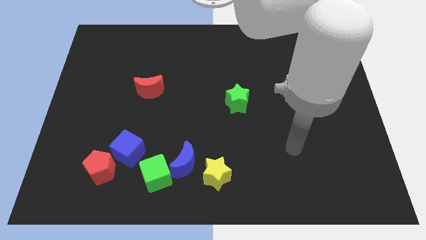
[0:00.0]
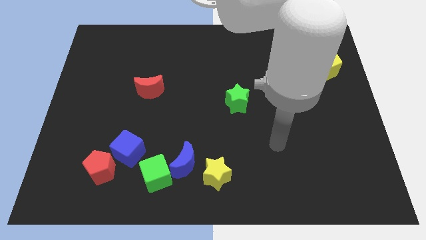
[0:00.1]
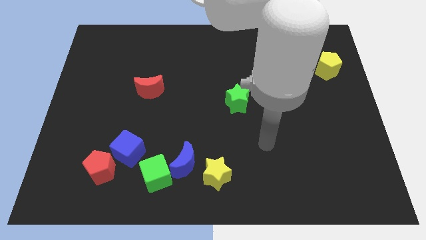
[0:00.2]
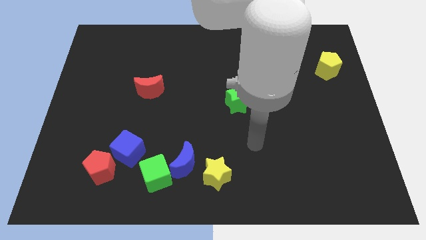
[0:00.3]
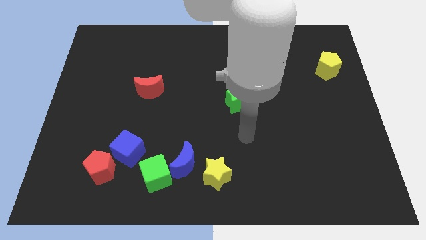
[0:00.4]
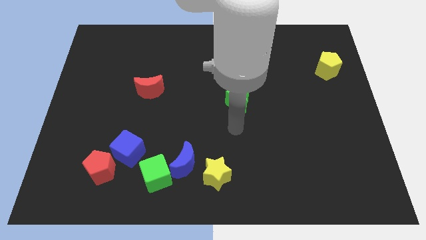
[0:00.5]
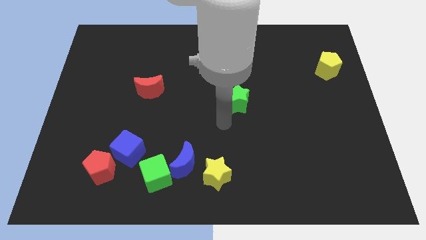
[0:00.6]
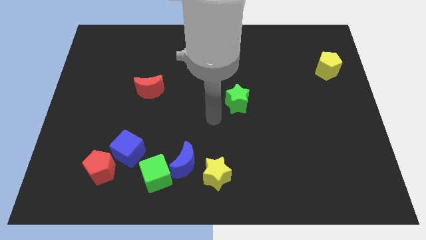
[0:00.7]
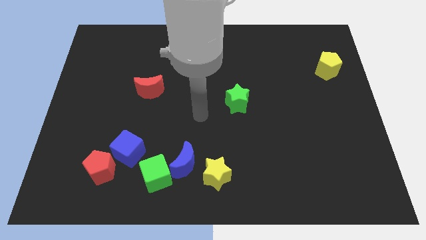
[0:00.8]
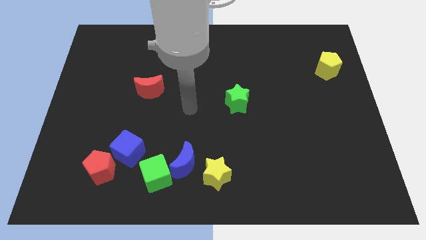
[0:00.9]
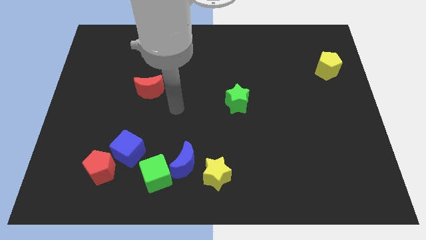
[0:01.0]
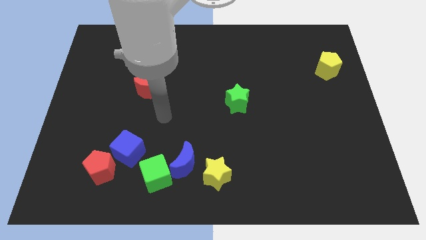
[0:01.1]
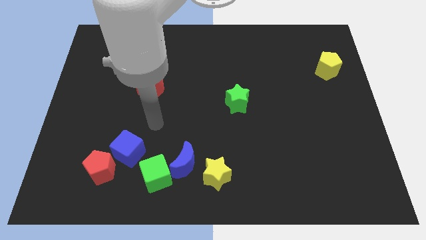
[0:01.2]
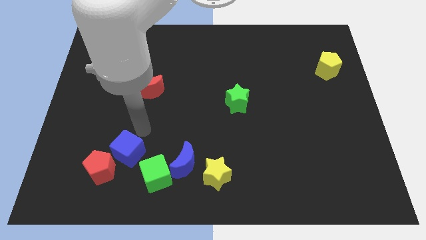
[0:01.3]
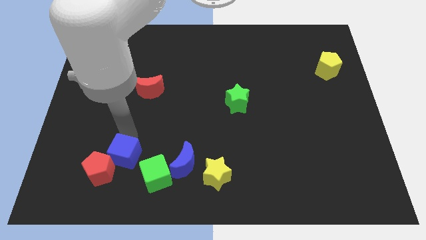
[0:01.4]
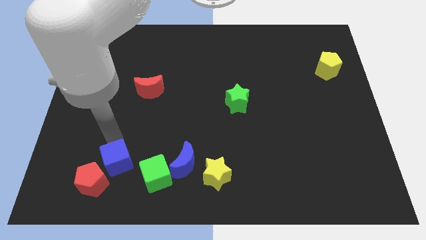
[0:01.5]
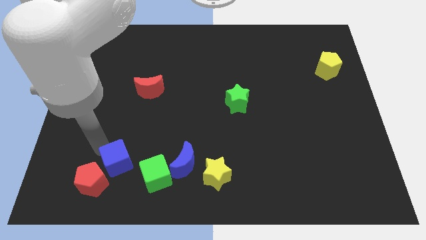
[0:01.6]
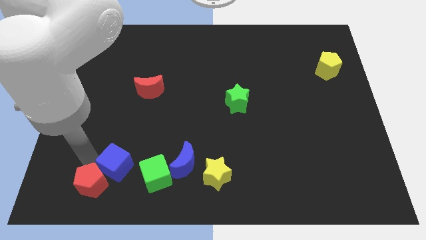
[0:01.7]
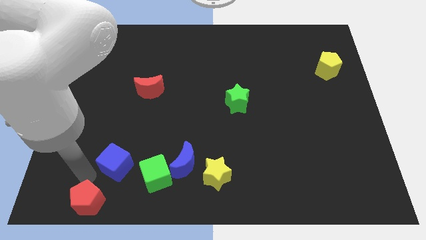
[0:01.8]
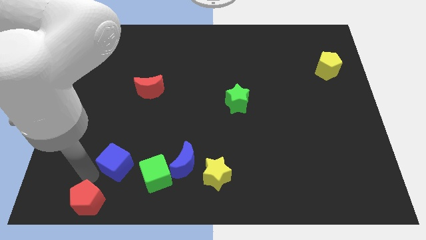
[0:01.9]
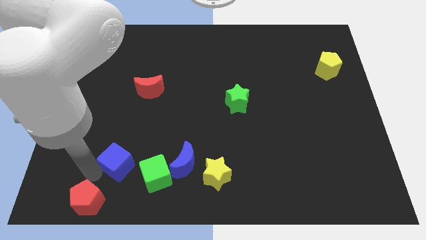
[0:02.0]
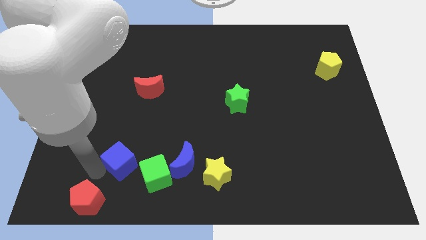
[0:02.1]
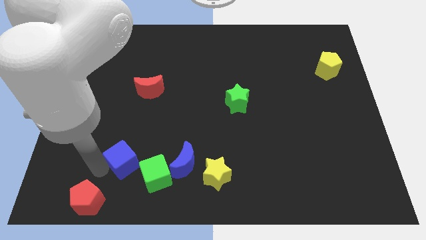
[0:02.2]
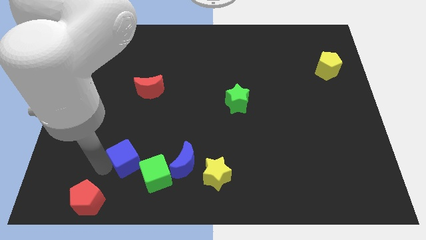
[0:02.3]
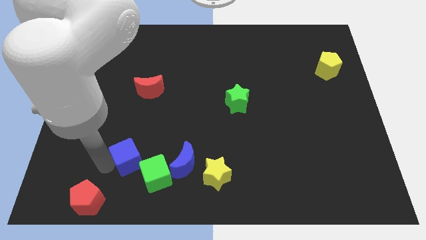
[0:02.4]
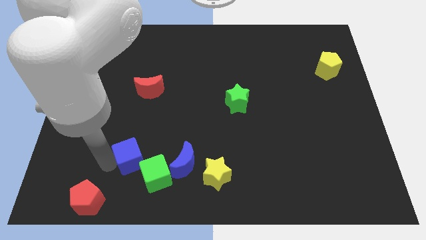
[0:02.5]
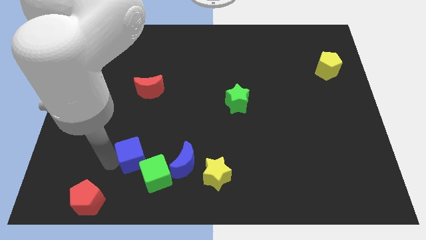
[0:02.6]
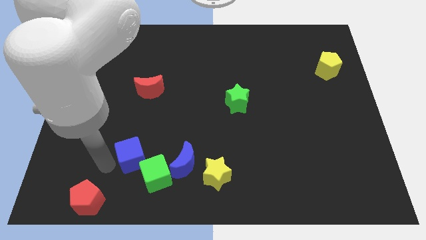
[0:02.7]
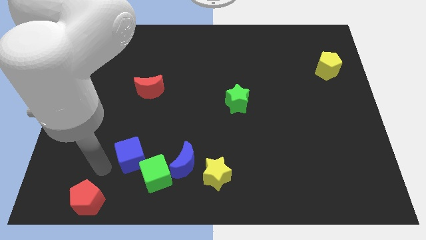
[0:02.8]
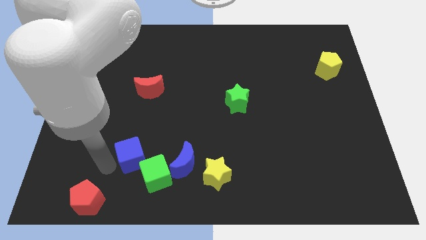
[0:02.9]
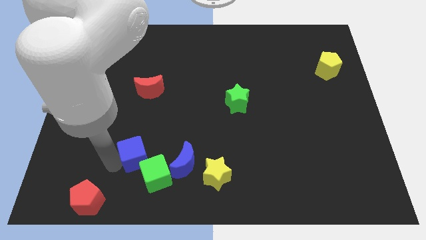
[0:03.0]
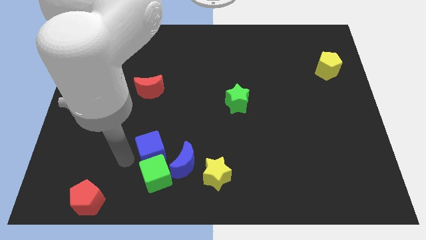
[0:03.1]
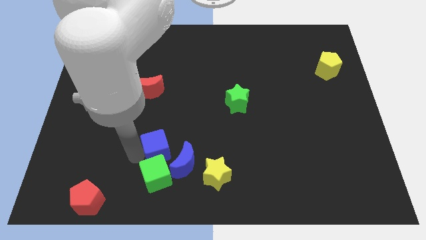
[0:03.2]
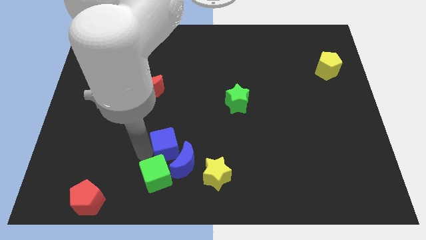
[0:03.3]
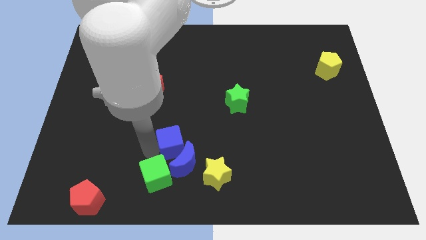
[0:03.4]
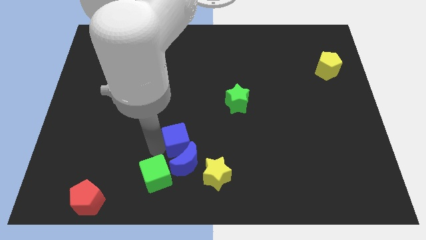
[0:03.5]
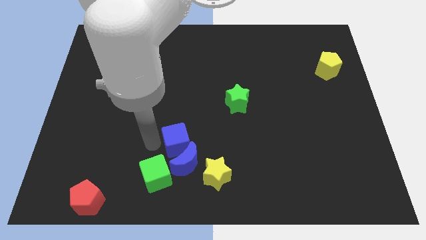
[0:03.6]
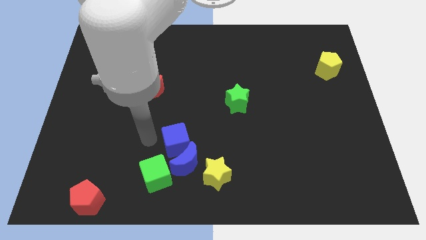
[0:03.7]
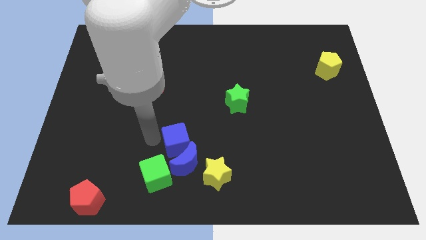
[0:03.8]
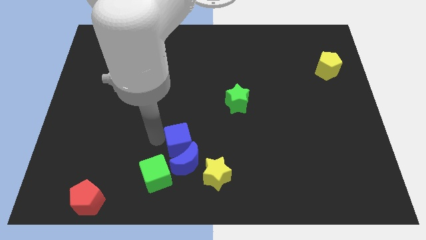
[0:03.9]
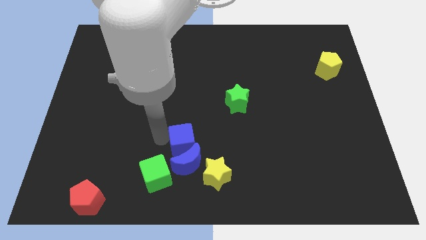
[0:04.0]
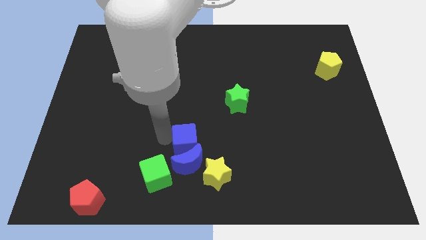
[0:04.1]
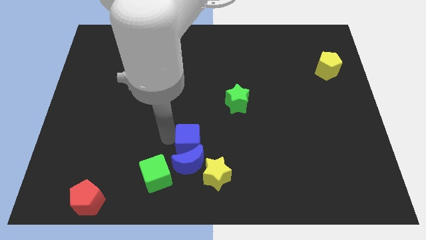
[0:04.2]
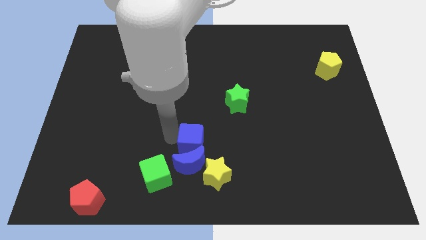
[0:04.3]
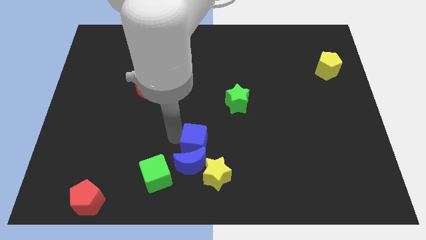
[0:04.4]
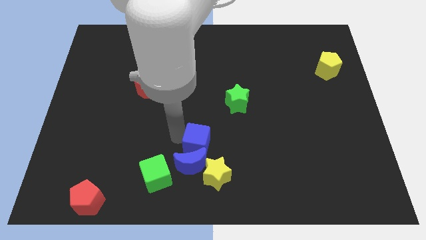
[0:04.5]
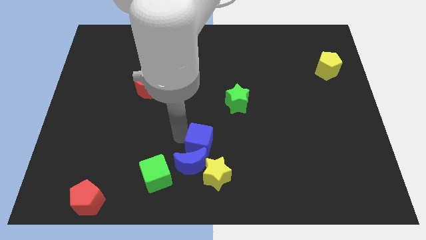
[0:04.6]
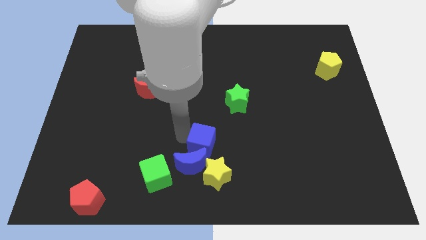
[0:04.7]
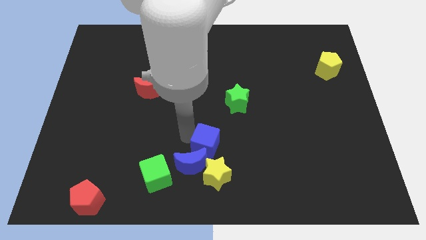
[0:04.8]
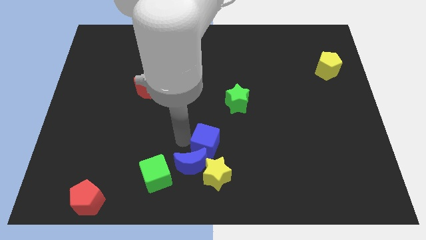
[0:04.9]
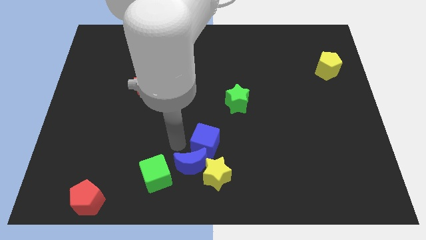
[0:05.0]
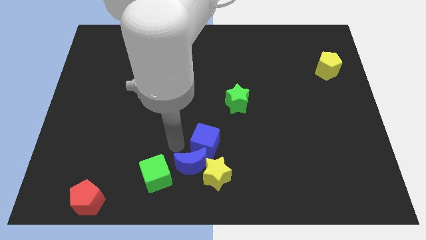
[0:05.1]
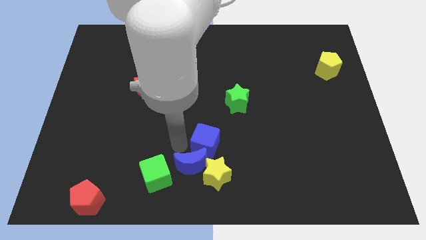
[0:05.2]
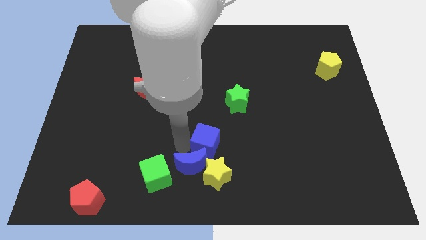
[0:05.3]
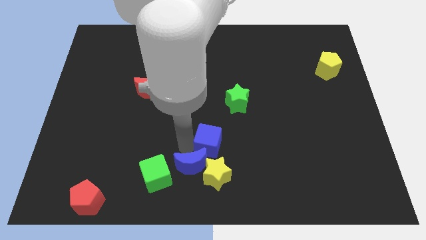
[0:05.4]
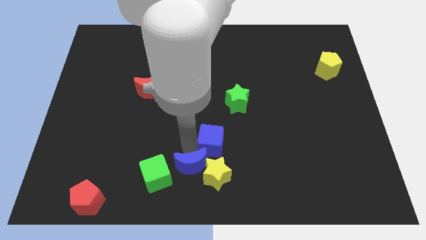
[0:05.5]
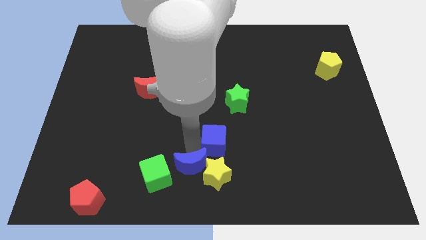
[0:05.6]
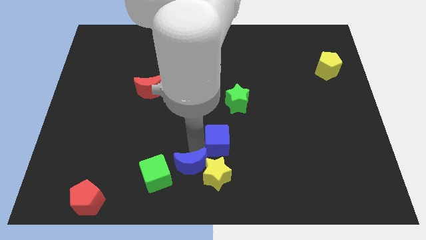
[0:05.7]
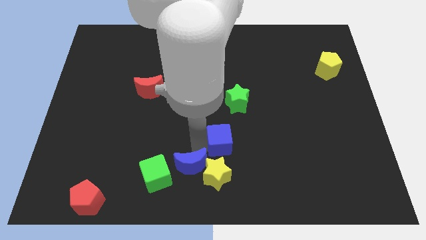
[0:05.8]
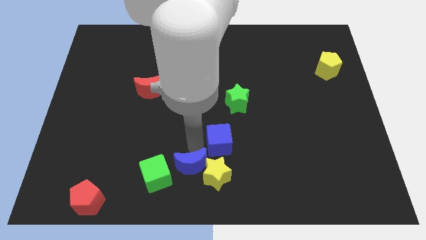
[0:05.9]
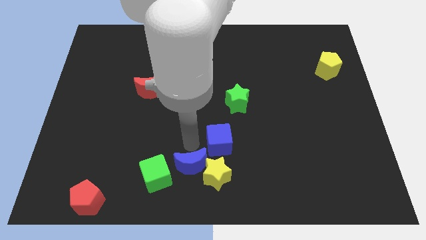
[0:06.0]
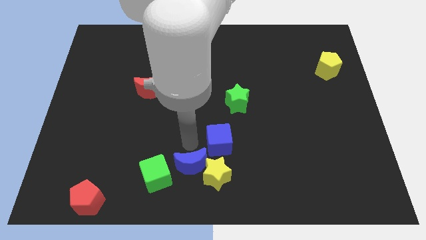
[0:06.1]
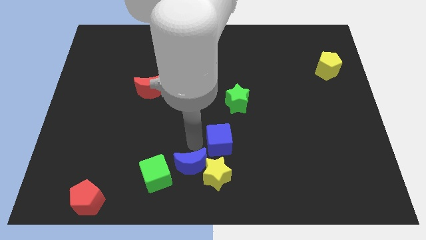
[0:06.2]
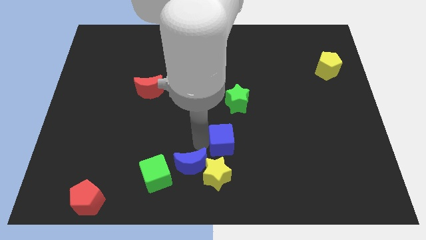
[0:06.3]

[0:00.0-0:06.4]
slide the blue cube right

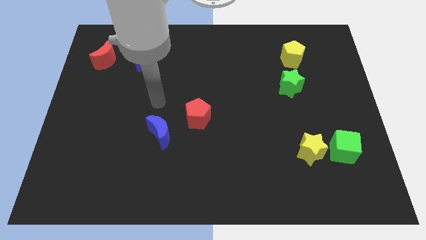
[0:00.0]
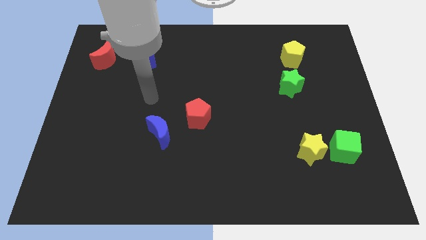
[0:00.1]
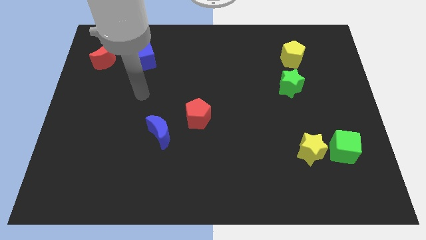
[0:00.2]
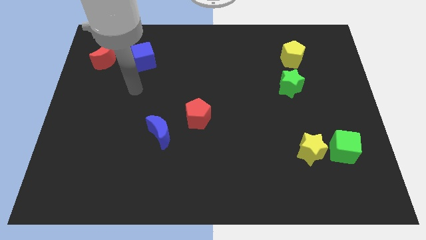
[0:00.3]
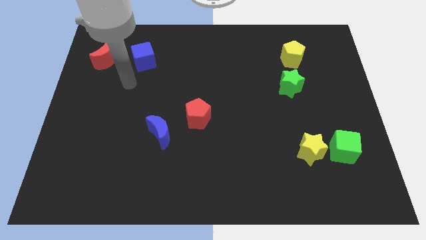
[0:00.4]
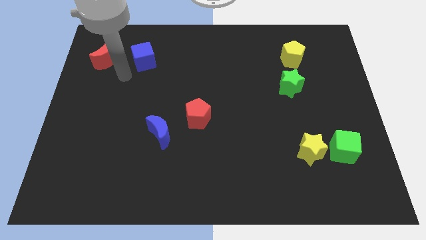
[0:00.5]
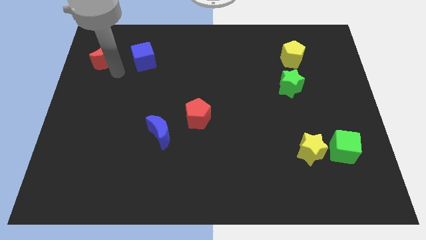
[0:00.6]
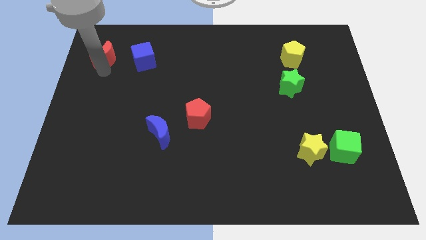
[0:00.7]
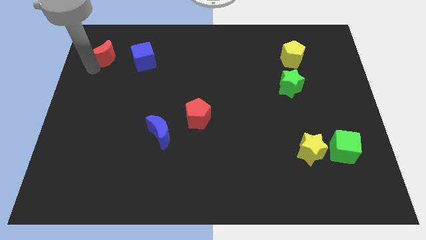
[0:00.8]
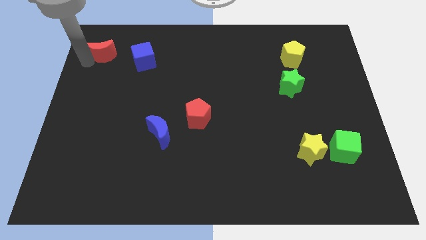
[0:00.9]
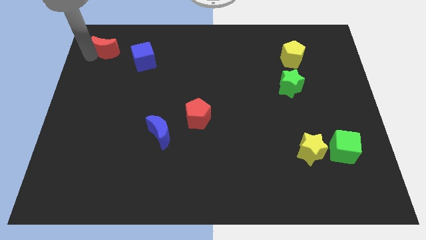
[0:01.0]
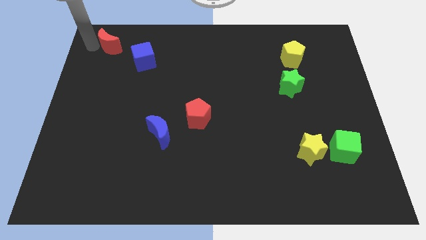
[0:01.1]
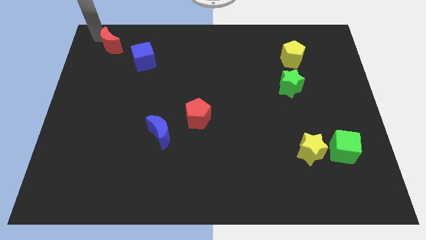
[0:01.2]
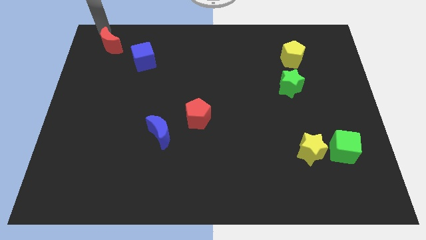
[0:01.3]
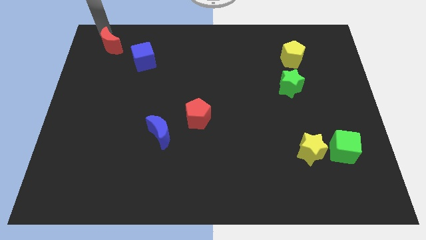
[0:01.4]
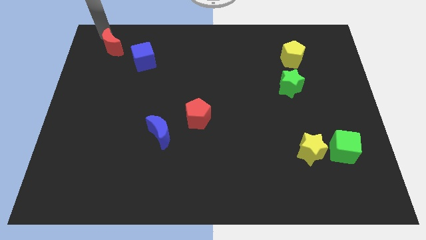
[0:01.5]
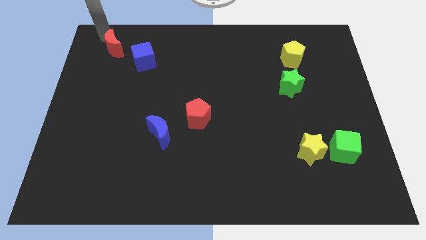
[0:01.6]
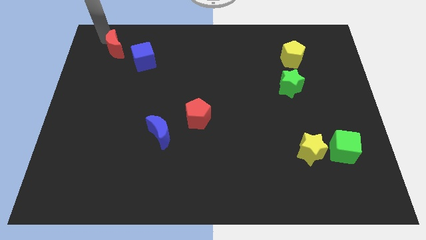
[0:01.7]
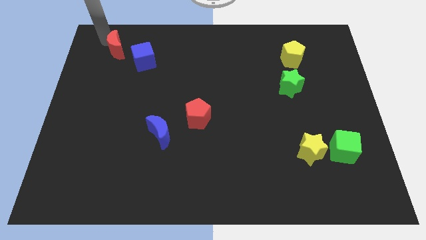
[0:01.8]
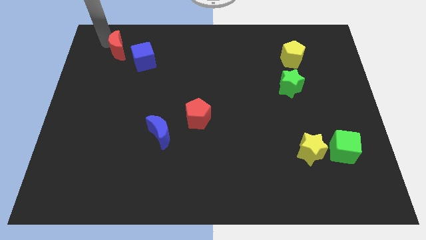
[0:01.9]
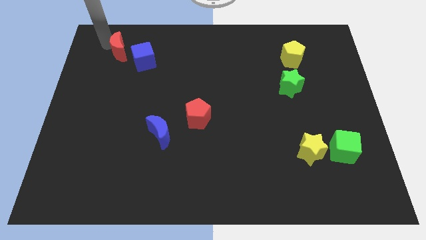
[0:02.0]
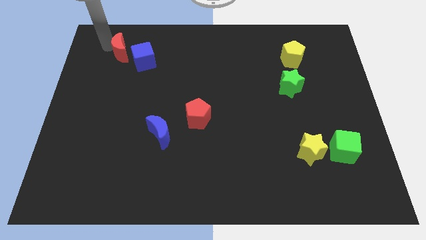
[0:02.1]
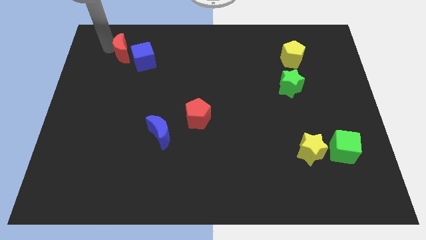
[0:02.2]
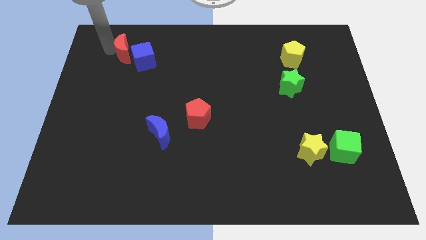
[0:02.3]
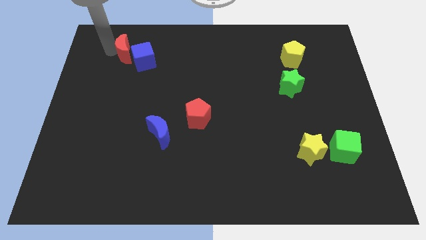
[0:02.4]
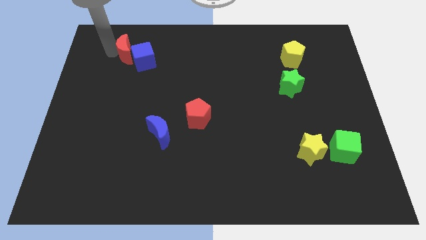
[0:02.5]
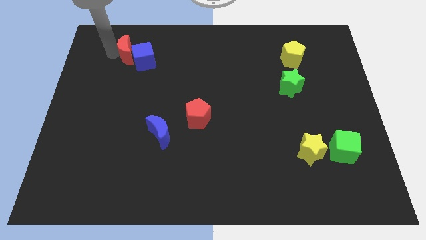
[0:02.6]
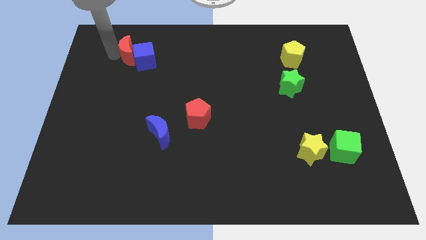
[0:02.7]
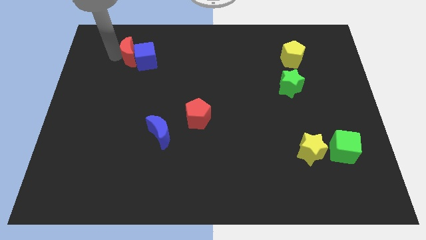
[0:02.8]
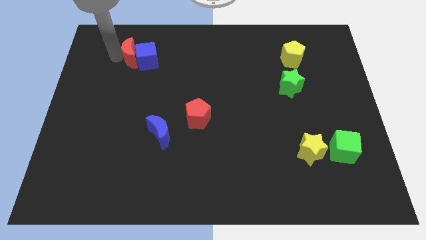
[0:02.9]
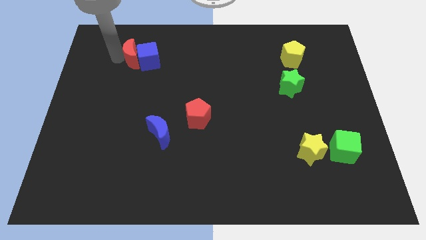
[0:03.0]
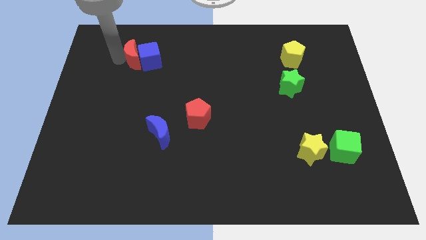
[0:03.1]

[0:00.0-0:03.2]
slide the red moon right a little bit
